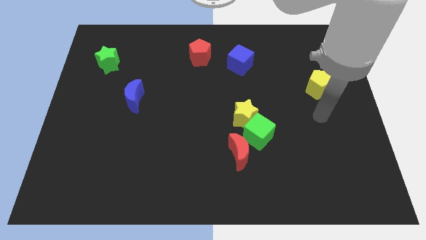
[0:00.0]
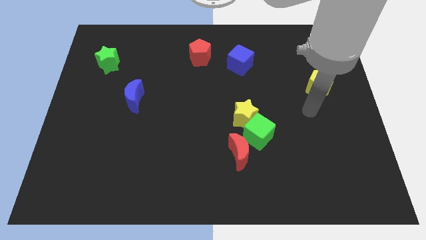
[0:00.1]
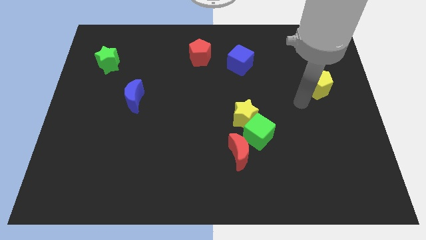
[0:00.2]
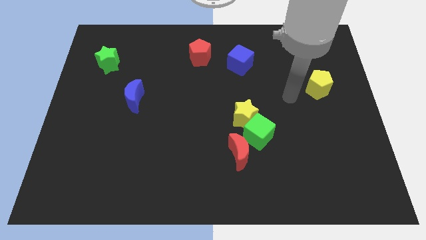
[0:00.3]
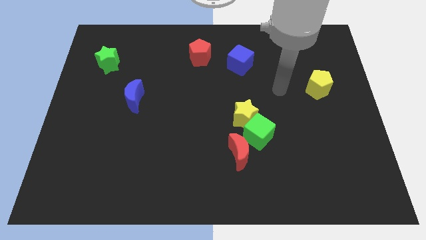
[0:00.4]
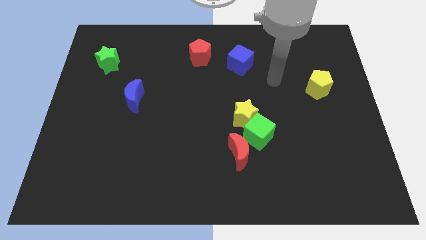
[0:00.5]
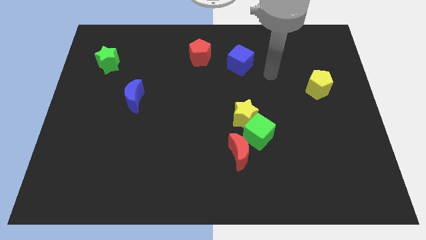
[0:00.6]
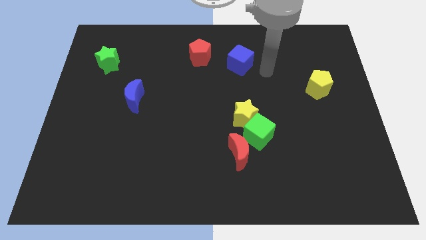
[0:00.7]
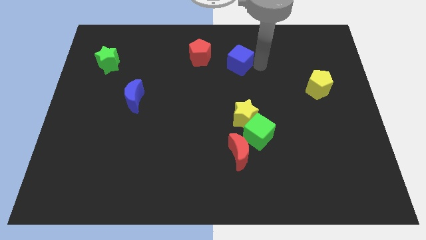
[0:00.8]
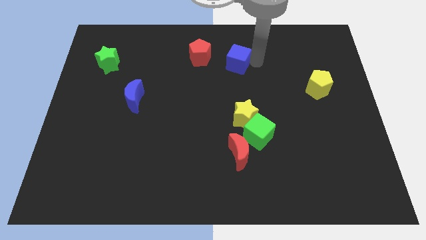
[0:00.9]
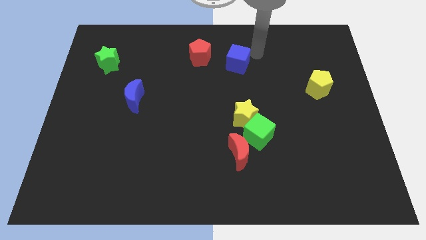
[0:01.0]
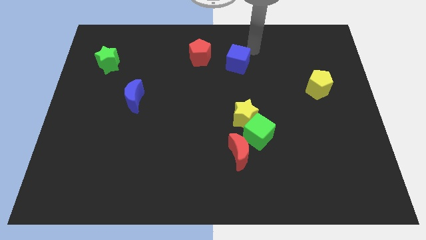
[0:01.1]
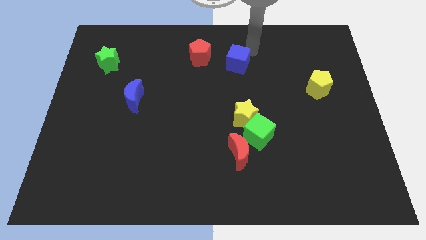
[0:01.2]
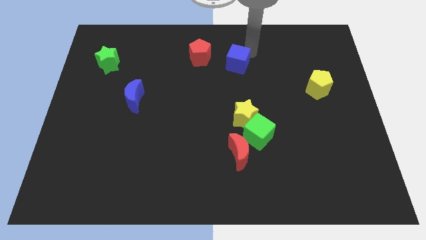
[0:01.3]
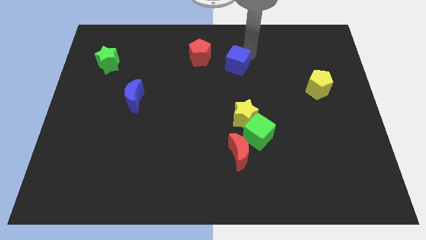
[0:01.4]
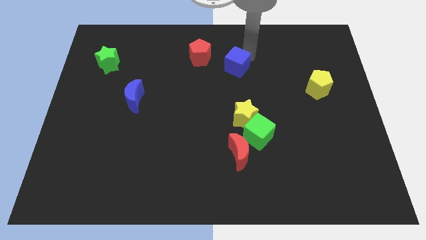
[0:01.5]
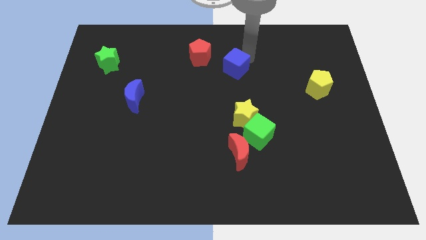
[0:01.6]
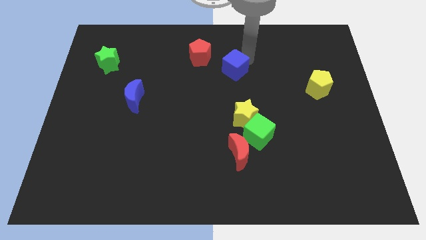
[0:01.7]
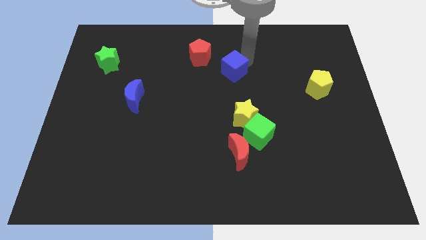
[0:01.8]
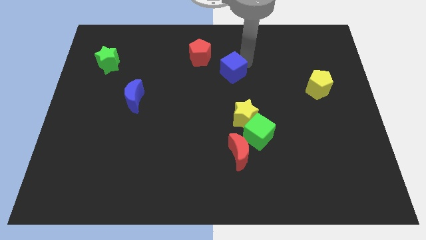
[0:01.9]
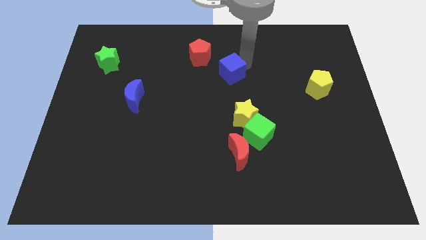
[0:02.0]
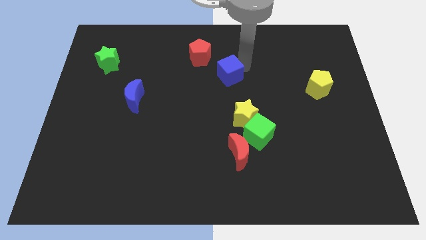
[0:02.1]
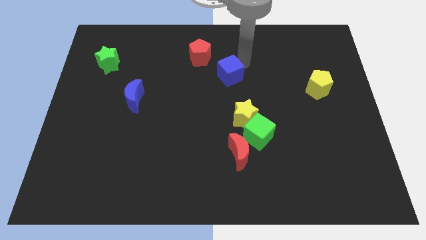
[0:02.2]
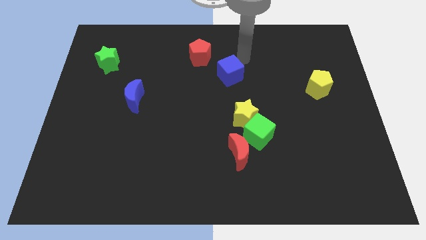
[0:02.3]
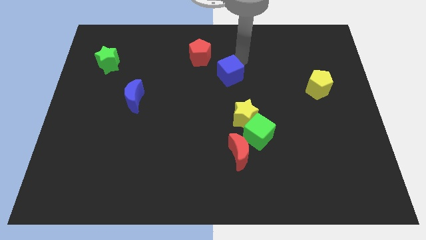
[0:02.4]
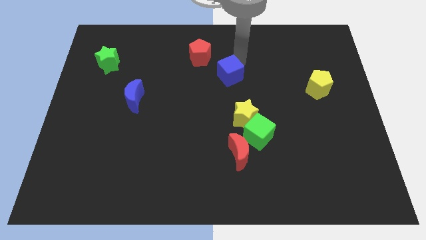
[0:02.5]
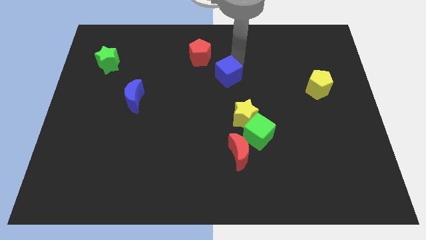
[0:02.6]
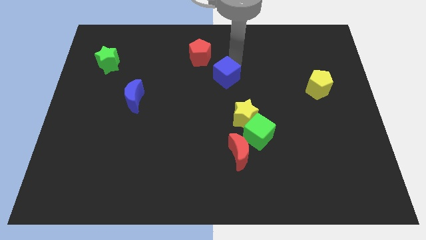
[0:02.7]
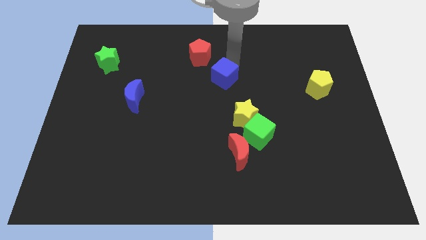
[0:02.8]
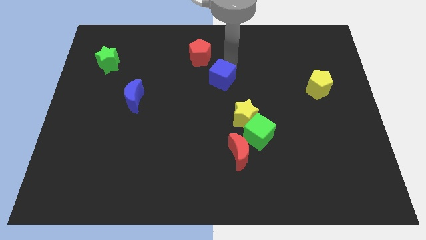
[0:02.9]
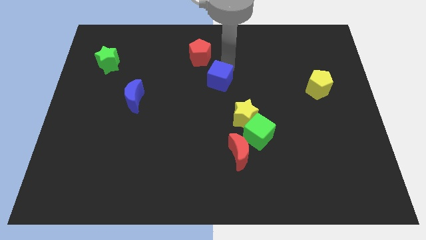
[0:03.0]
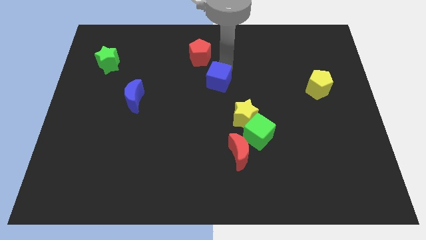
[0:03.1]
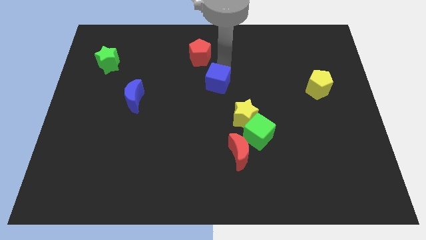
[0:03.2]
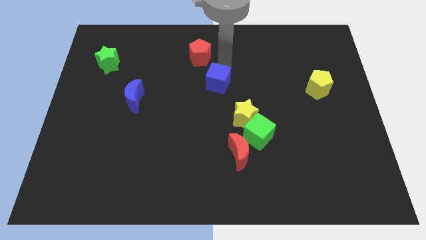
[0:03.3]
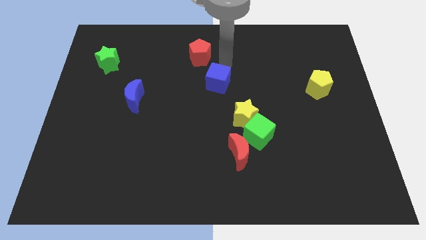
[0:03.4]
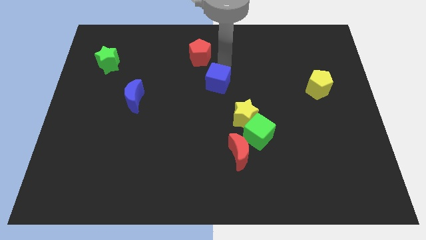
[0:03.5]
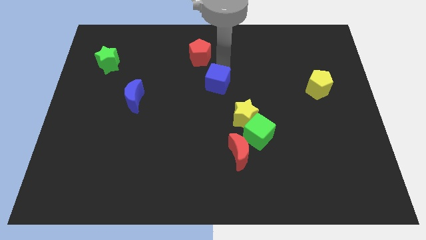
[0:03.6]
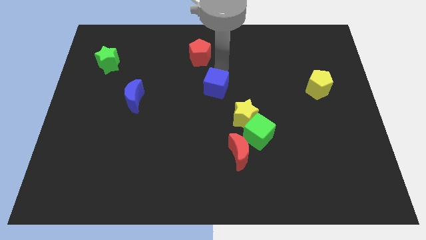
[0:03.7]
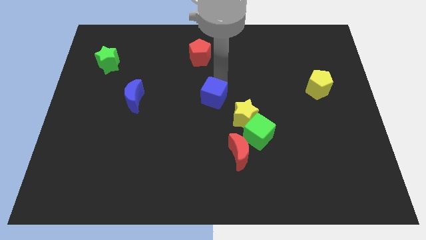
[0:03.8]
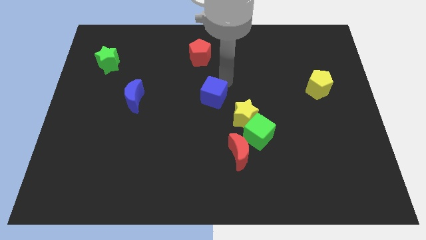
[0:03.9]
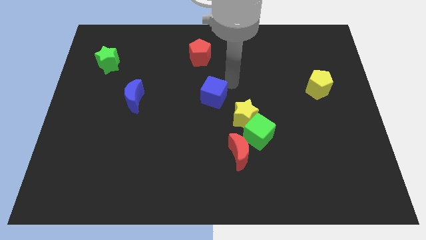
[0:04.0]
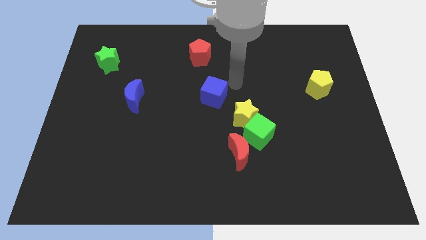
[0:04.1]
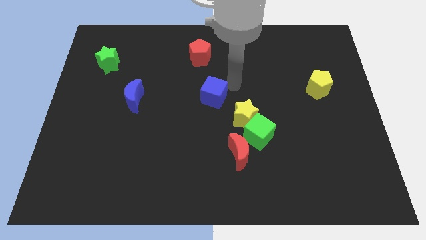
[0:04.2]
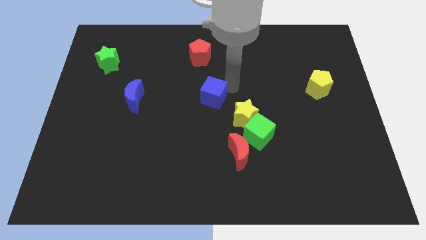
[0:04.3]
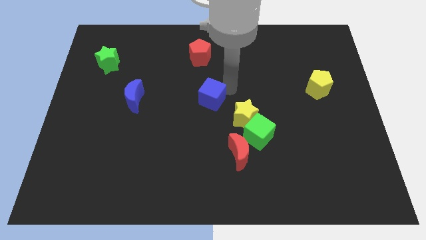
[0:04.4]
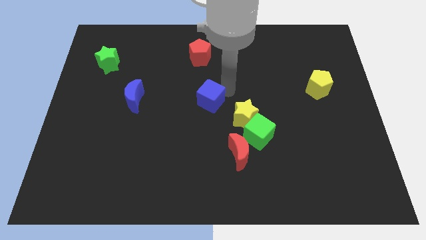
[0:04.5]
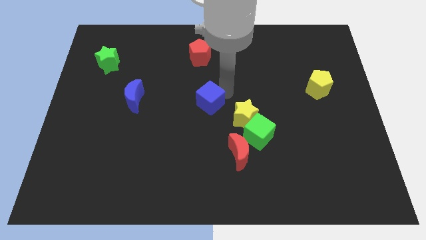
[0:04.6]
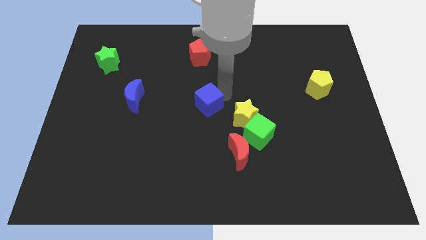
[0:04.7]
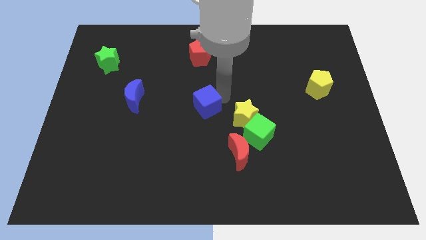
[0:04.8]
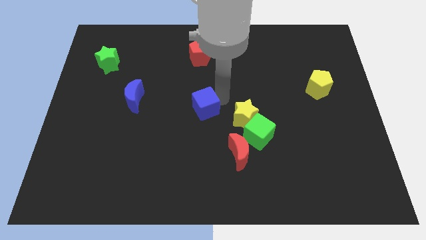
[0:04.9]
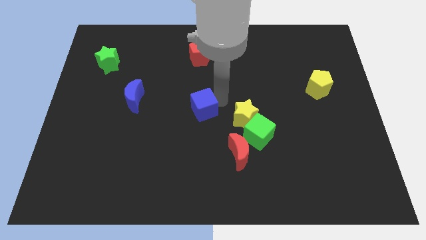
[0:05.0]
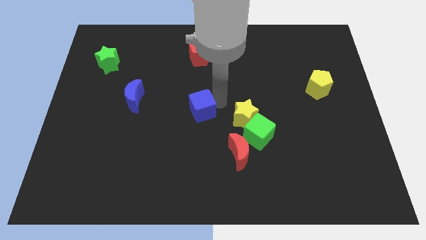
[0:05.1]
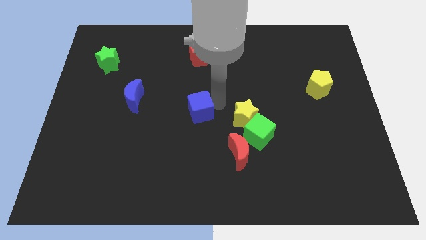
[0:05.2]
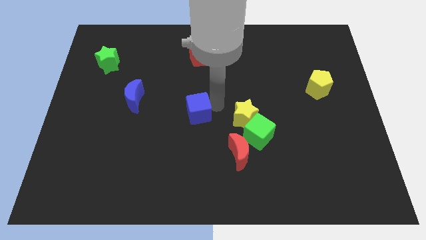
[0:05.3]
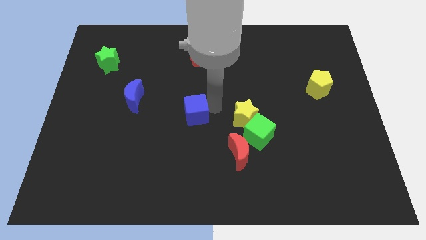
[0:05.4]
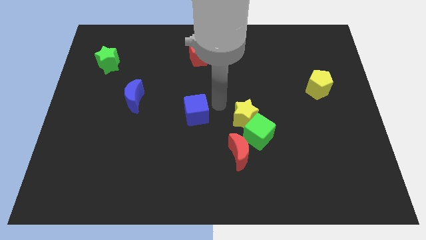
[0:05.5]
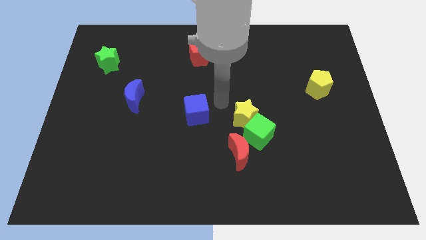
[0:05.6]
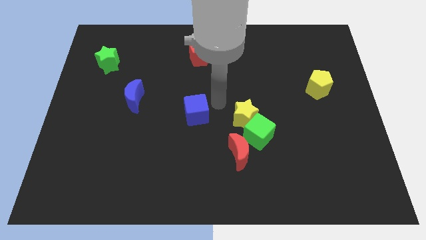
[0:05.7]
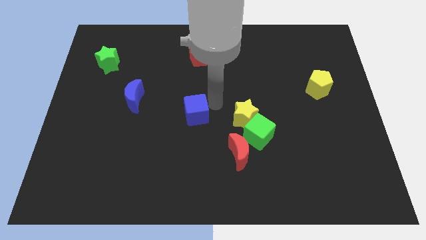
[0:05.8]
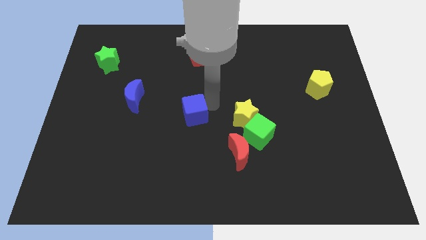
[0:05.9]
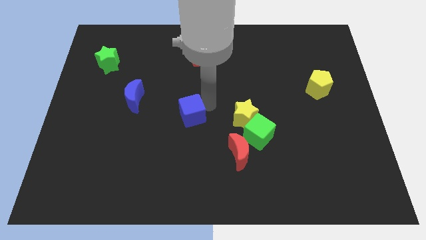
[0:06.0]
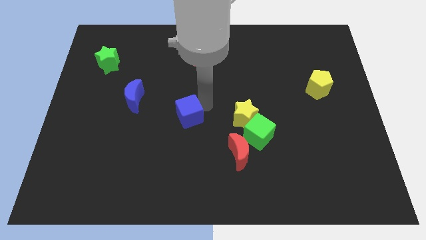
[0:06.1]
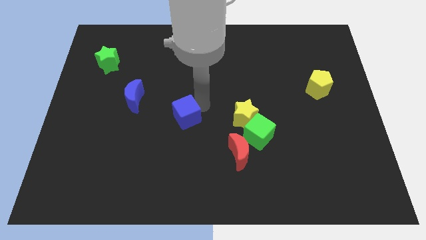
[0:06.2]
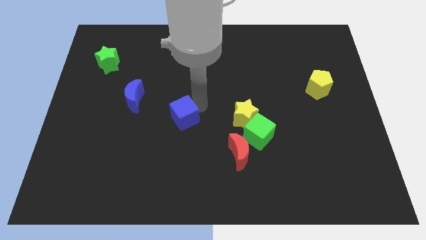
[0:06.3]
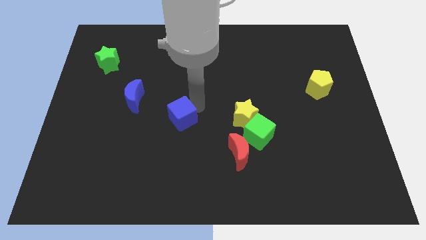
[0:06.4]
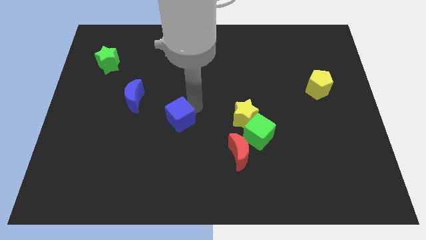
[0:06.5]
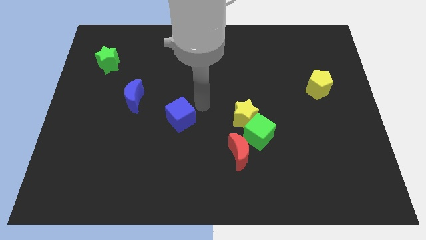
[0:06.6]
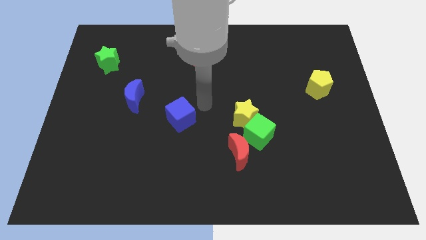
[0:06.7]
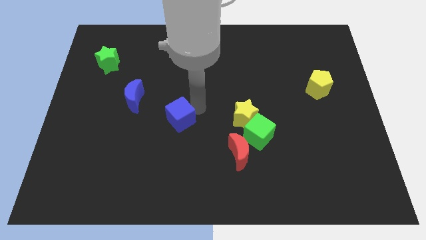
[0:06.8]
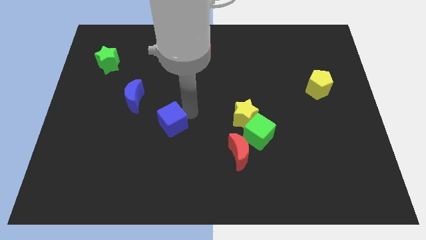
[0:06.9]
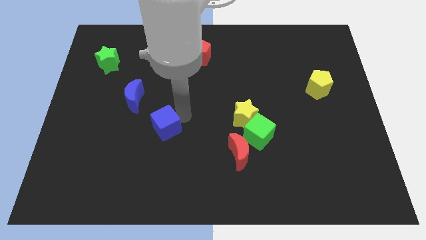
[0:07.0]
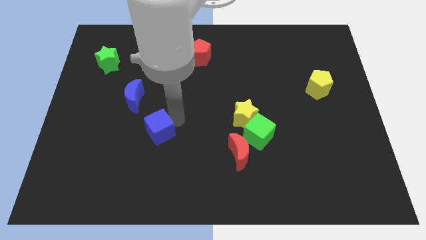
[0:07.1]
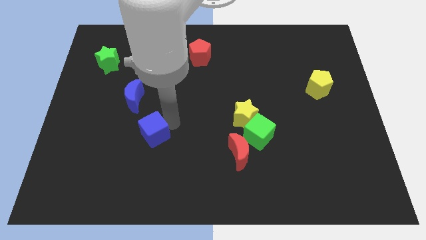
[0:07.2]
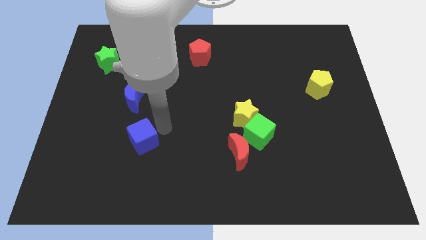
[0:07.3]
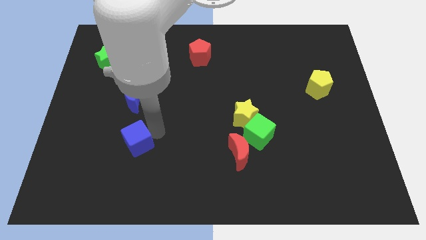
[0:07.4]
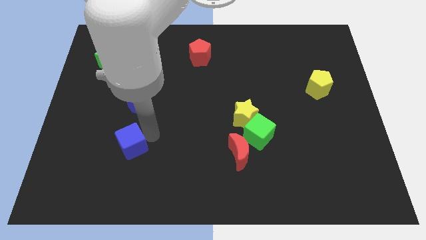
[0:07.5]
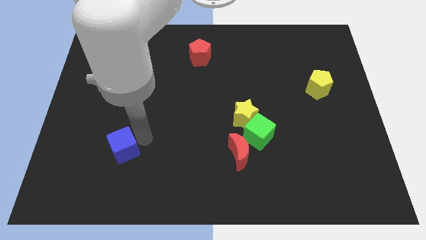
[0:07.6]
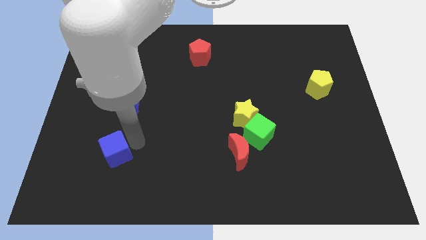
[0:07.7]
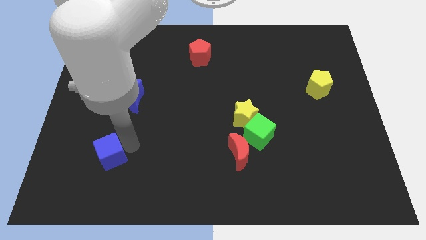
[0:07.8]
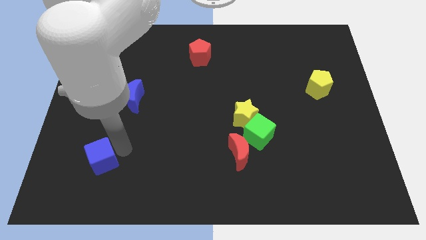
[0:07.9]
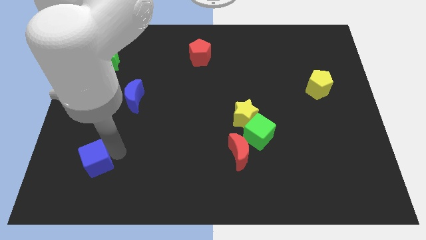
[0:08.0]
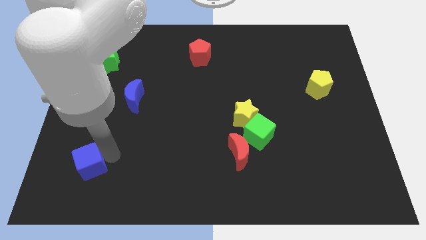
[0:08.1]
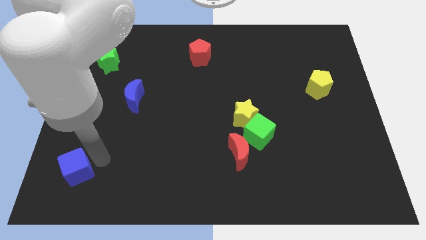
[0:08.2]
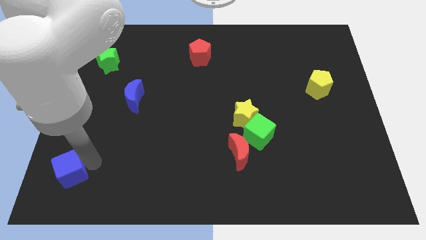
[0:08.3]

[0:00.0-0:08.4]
push the blue cube to the bottom left corner
